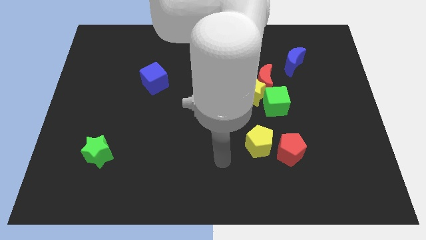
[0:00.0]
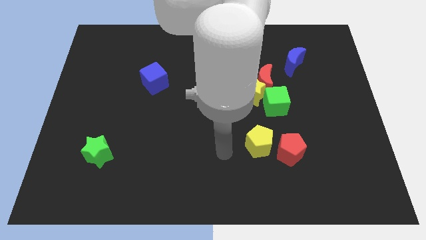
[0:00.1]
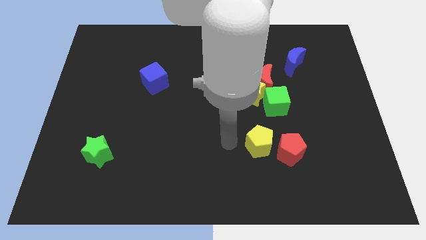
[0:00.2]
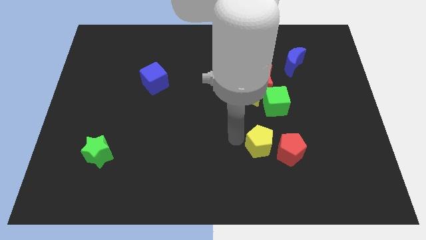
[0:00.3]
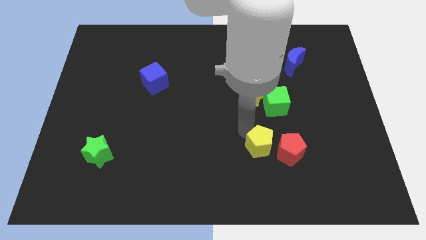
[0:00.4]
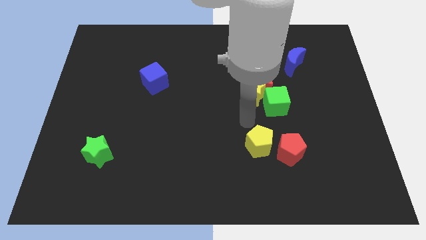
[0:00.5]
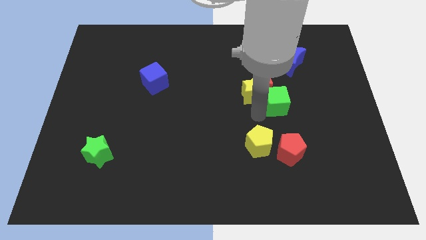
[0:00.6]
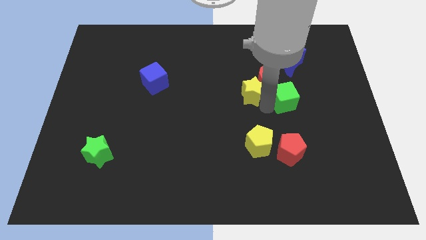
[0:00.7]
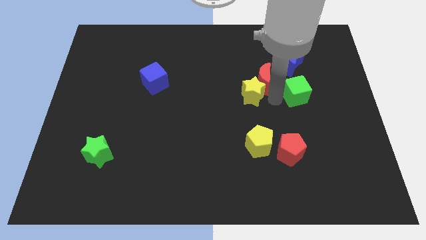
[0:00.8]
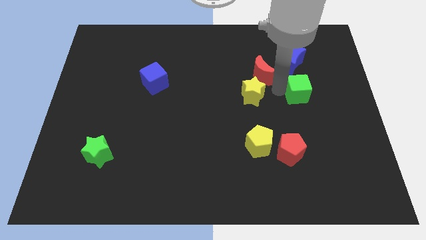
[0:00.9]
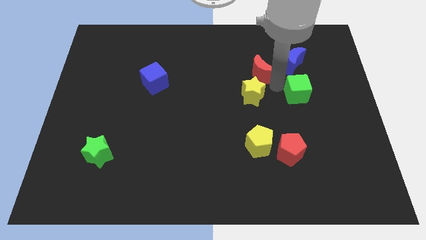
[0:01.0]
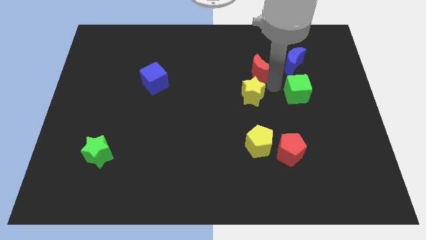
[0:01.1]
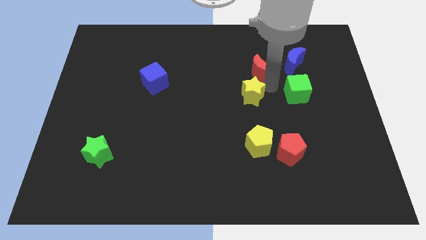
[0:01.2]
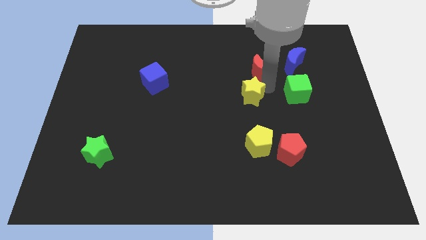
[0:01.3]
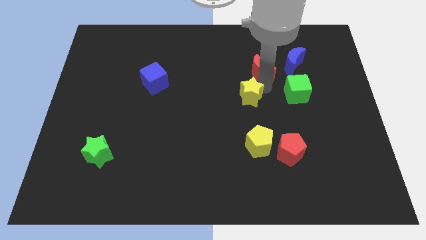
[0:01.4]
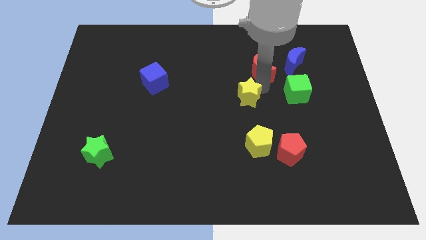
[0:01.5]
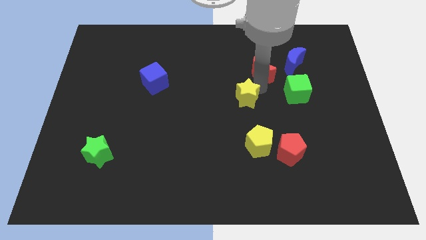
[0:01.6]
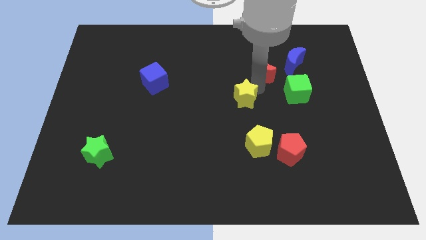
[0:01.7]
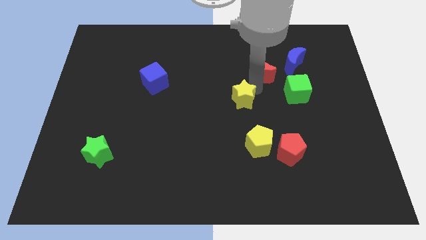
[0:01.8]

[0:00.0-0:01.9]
pull the yellow star apart from the red moon and green cube

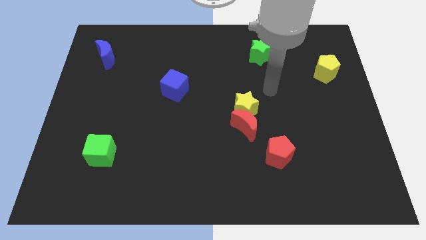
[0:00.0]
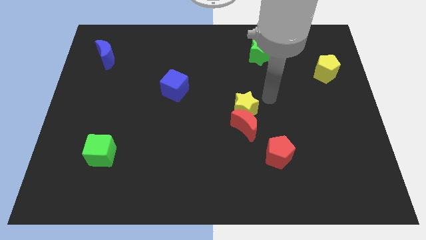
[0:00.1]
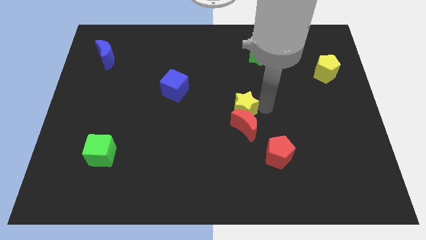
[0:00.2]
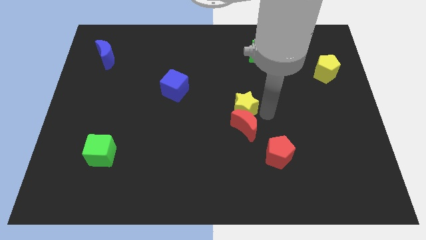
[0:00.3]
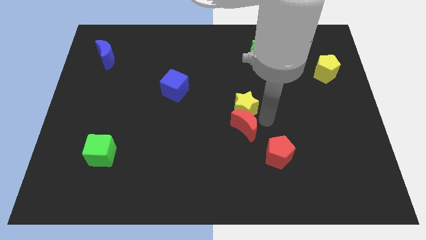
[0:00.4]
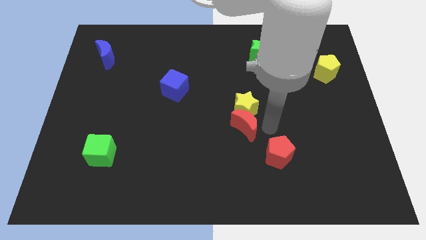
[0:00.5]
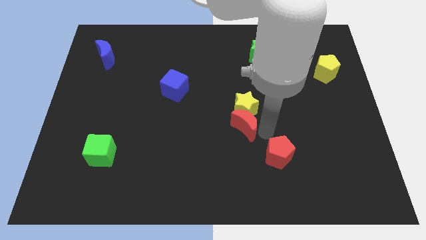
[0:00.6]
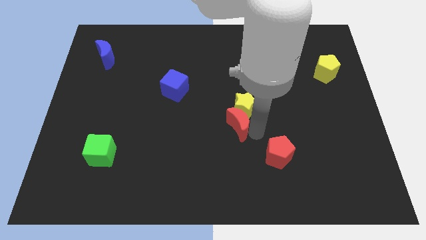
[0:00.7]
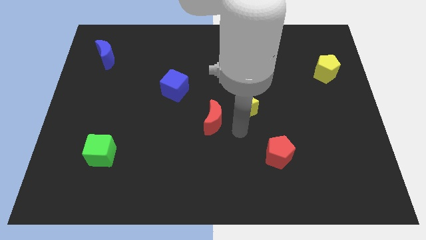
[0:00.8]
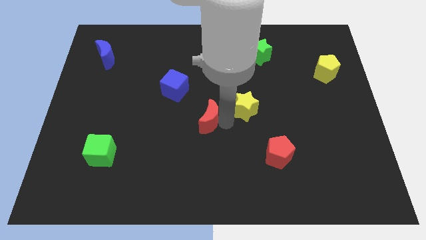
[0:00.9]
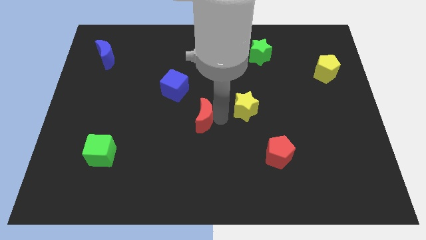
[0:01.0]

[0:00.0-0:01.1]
pull the yellow star apart from the red moon

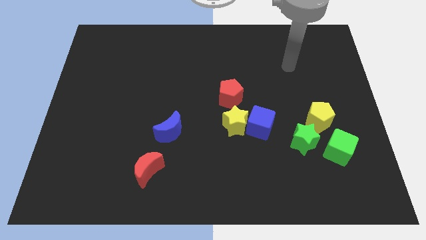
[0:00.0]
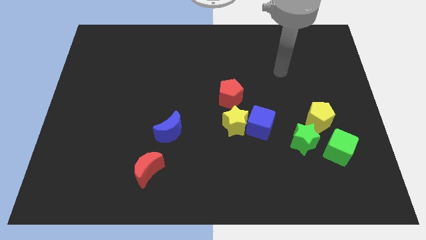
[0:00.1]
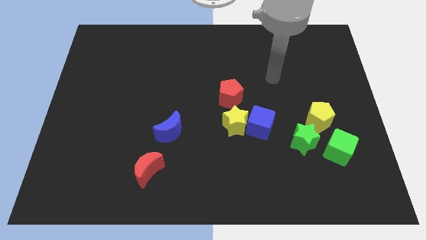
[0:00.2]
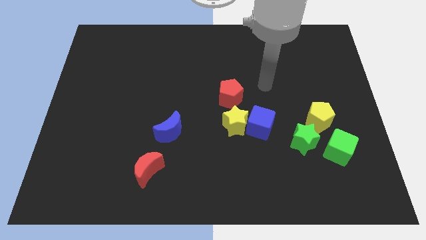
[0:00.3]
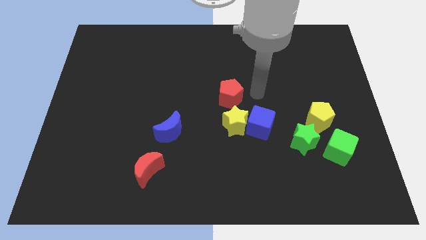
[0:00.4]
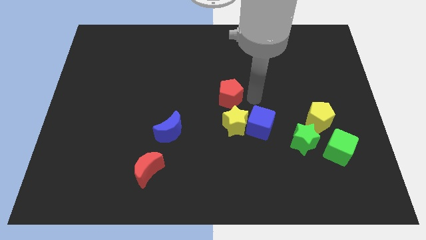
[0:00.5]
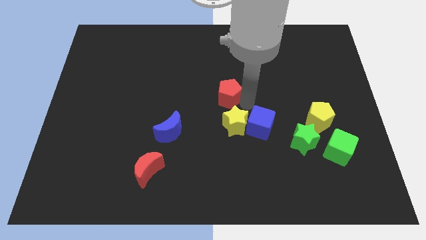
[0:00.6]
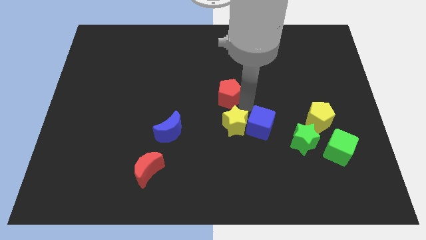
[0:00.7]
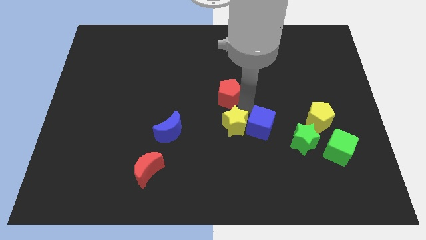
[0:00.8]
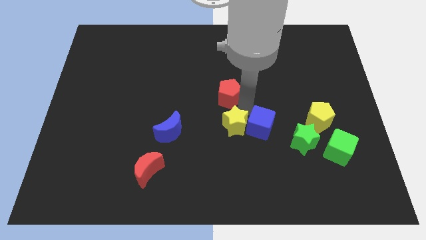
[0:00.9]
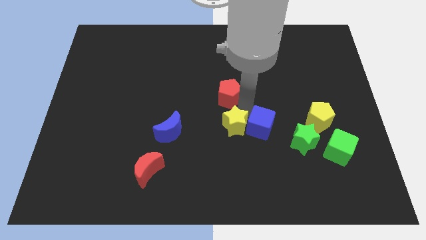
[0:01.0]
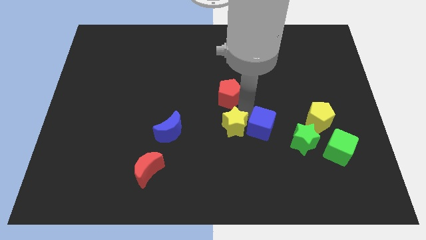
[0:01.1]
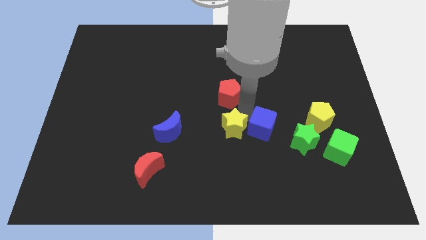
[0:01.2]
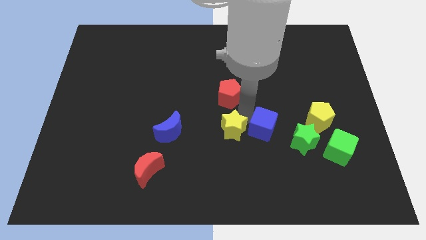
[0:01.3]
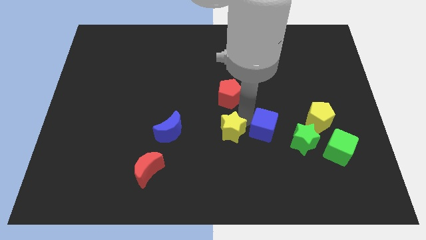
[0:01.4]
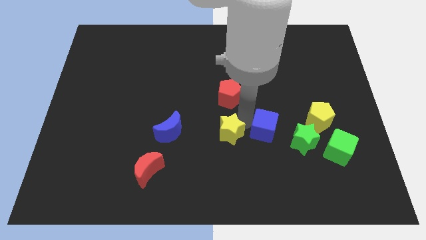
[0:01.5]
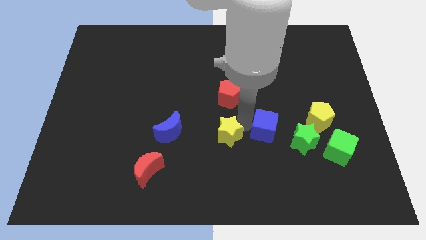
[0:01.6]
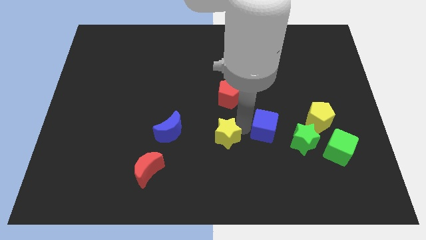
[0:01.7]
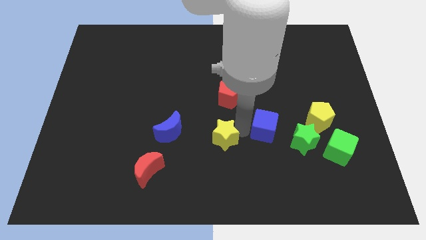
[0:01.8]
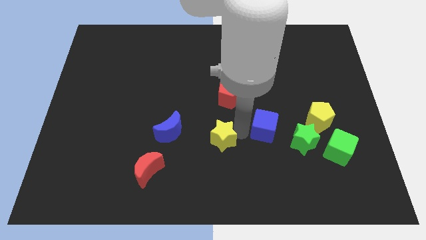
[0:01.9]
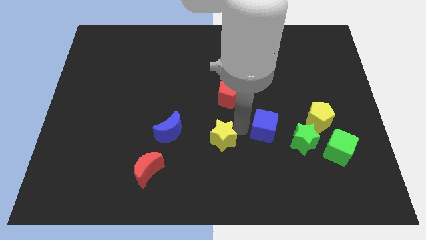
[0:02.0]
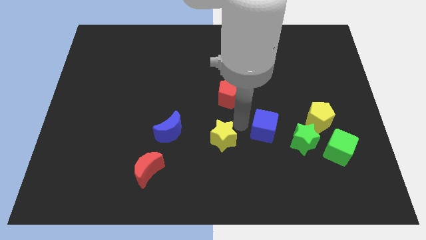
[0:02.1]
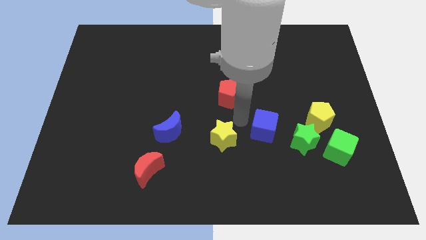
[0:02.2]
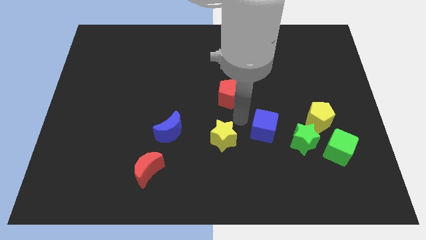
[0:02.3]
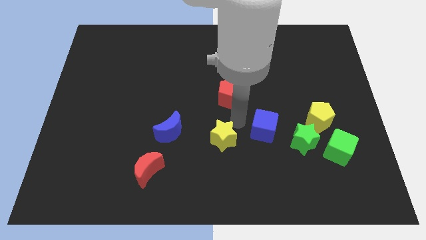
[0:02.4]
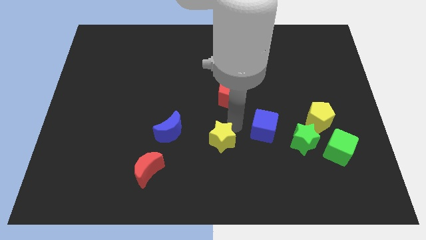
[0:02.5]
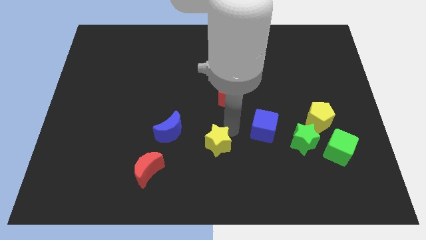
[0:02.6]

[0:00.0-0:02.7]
move the yellow star away from the blue cube and red pentagon

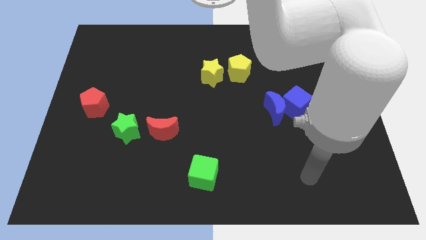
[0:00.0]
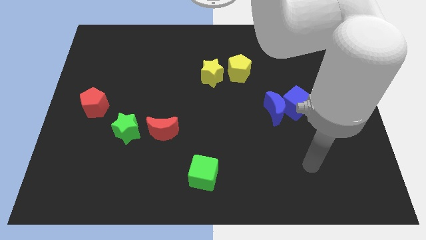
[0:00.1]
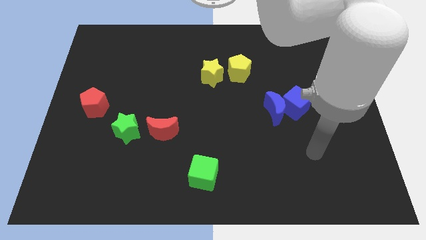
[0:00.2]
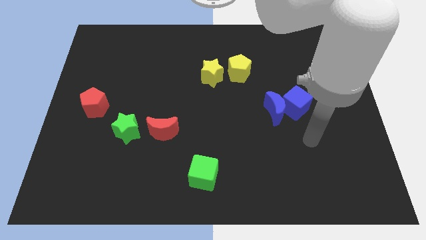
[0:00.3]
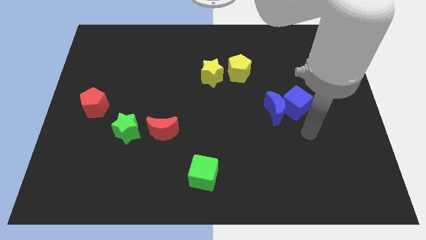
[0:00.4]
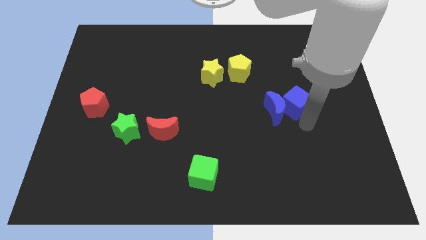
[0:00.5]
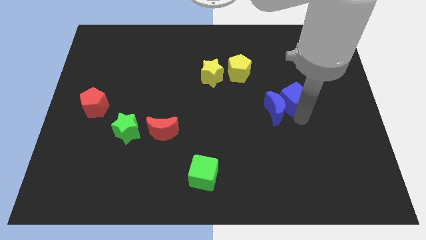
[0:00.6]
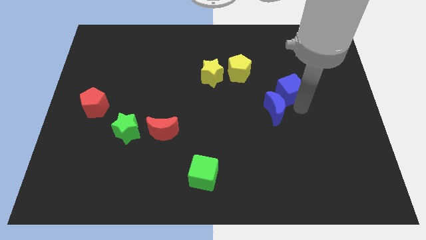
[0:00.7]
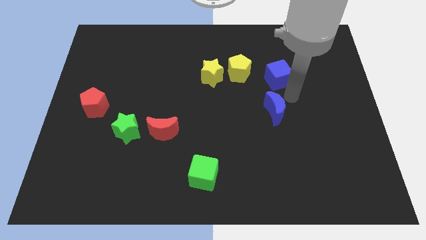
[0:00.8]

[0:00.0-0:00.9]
separate the blue moon from the blue cube

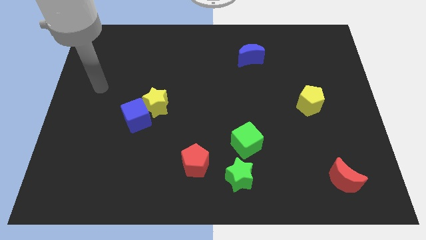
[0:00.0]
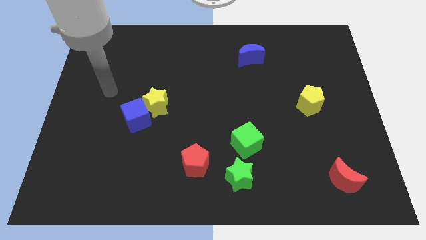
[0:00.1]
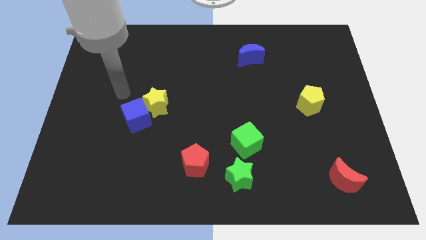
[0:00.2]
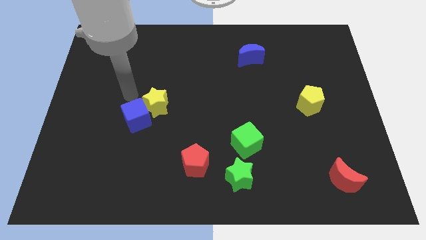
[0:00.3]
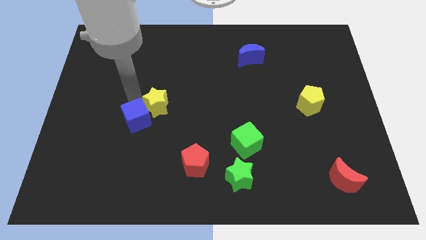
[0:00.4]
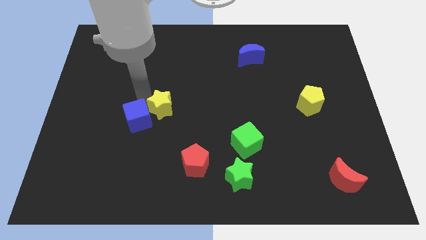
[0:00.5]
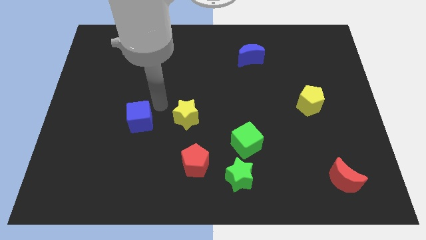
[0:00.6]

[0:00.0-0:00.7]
separate the blue cube from the yellow star

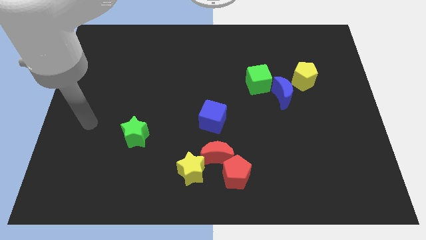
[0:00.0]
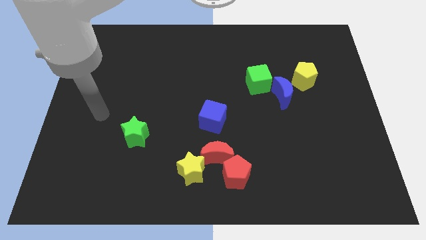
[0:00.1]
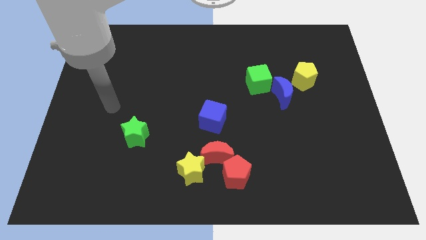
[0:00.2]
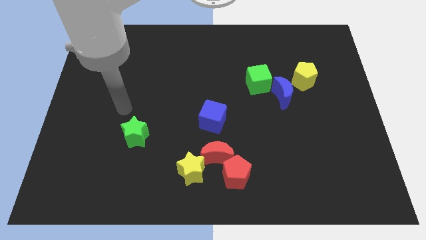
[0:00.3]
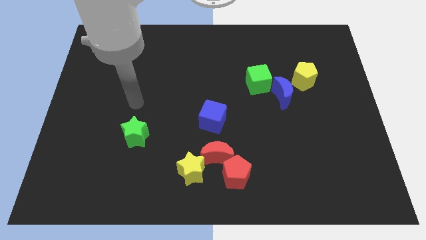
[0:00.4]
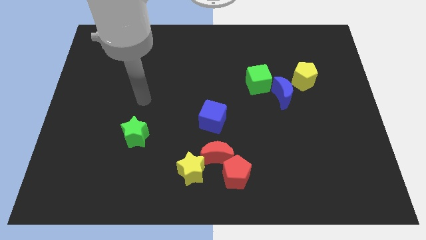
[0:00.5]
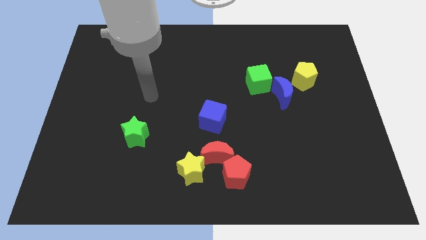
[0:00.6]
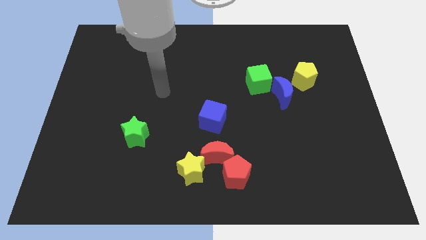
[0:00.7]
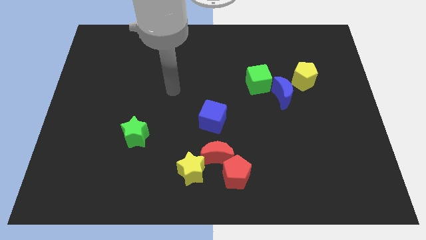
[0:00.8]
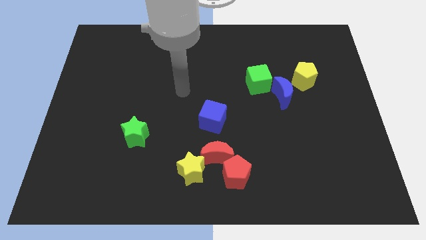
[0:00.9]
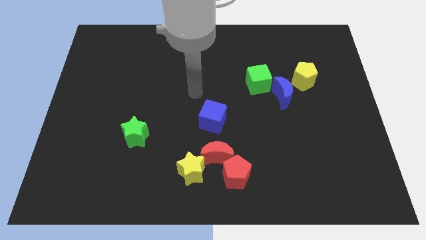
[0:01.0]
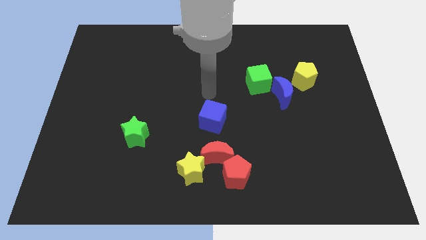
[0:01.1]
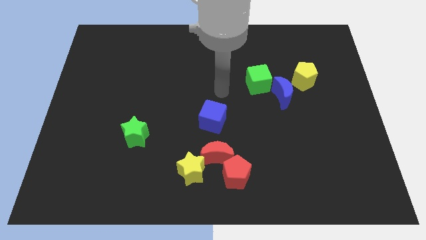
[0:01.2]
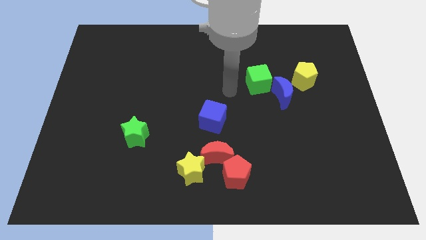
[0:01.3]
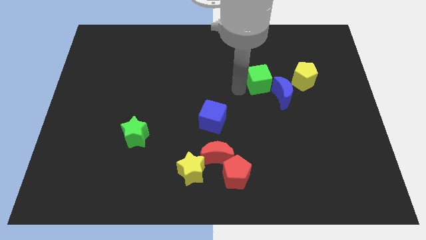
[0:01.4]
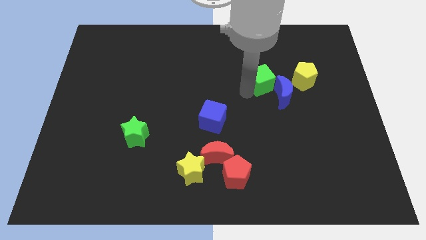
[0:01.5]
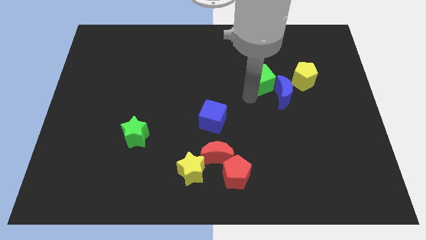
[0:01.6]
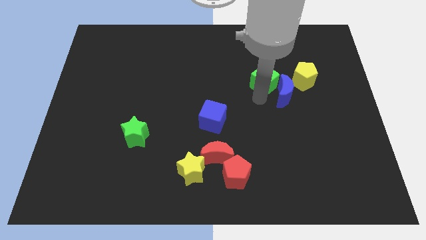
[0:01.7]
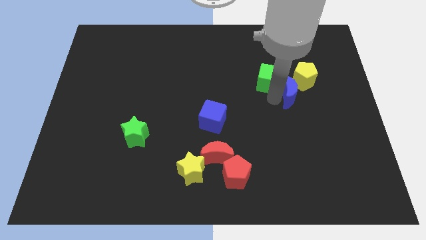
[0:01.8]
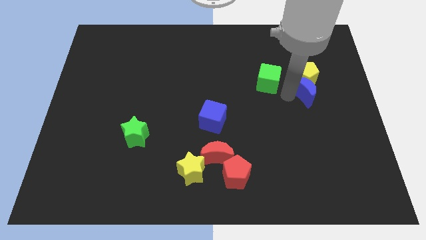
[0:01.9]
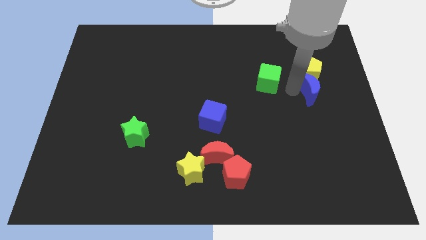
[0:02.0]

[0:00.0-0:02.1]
separate the green cube from the blue moon
